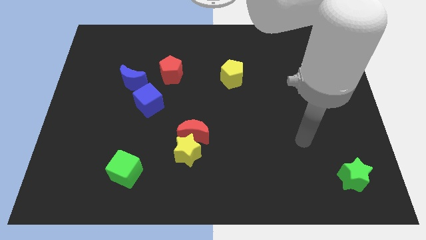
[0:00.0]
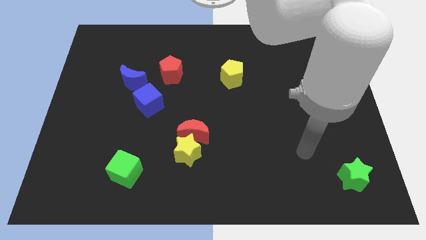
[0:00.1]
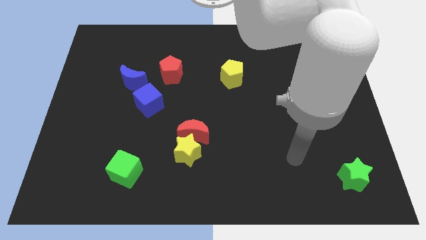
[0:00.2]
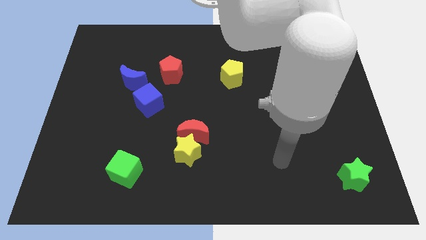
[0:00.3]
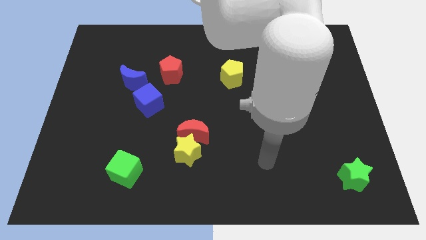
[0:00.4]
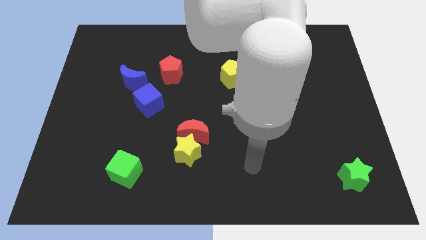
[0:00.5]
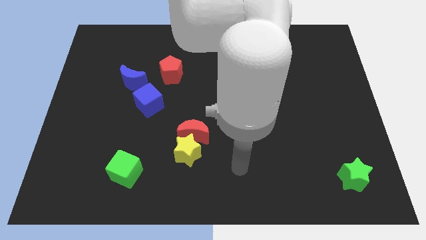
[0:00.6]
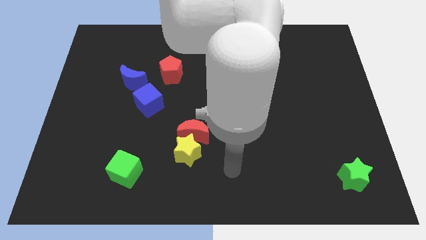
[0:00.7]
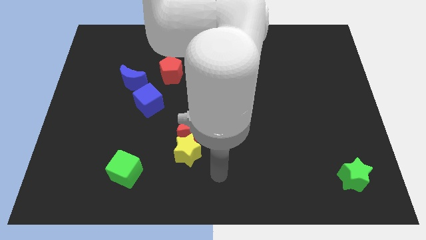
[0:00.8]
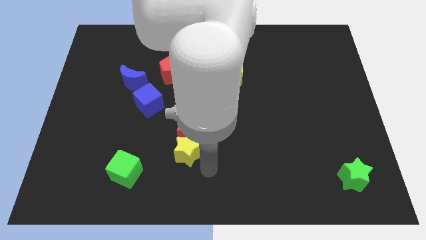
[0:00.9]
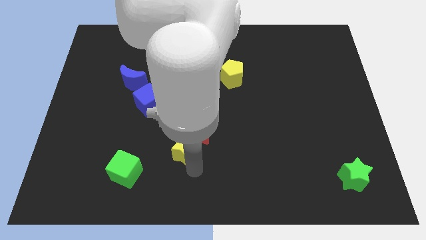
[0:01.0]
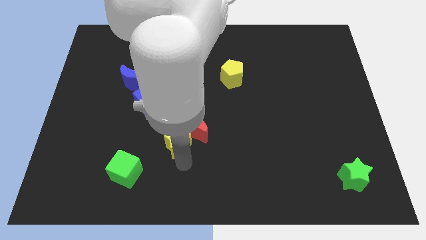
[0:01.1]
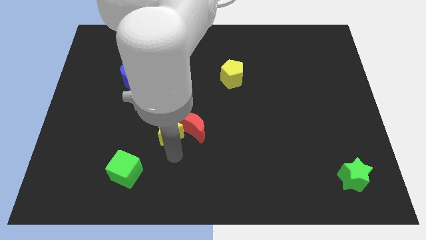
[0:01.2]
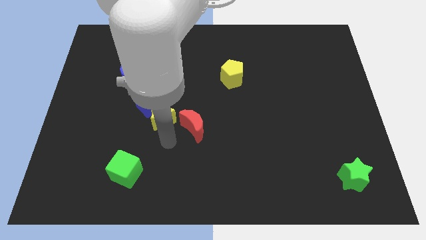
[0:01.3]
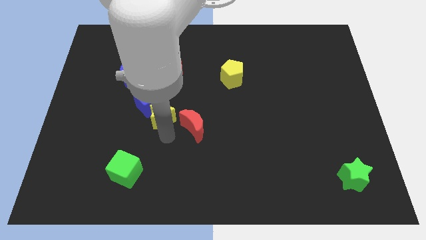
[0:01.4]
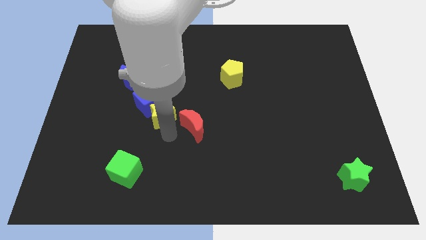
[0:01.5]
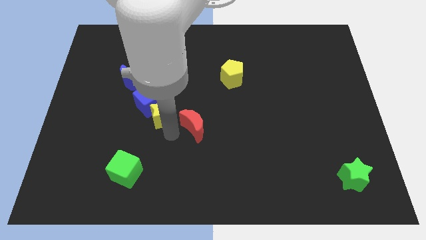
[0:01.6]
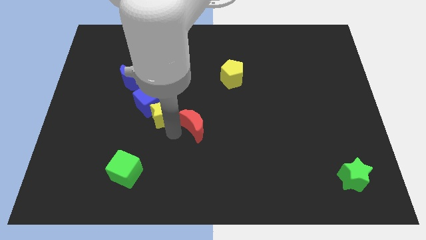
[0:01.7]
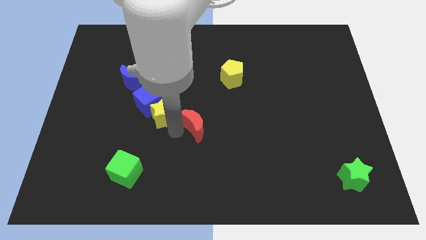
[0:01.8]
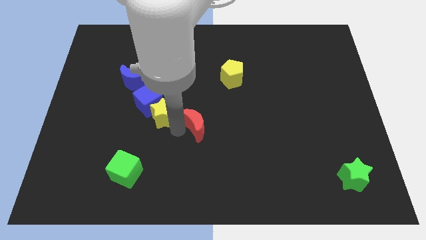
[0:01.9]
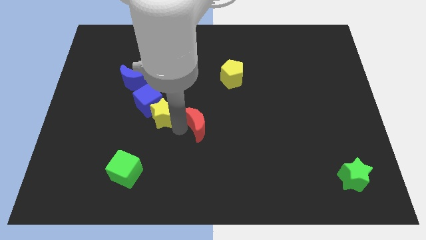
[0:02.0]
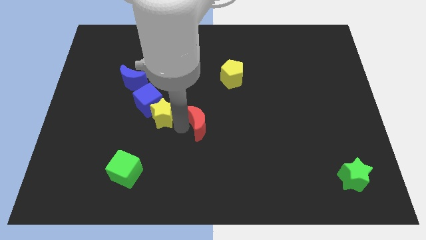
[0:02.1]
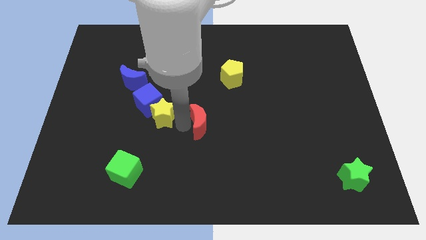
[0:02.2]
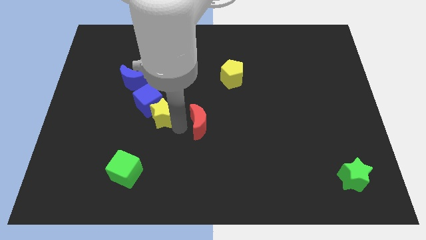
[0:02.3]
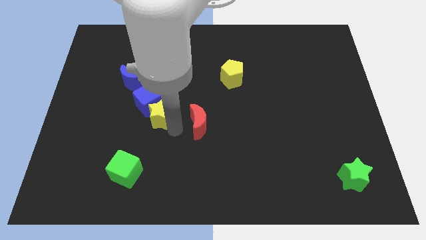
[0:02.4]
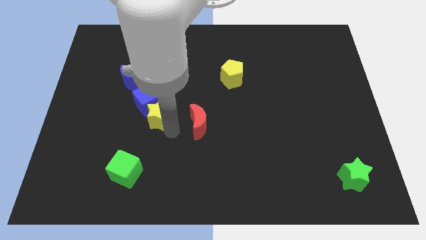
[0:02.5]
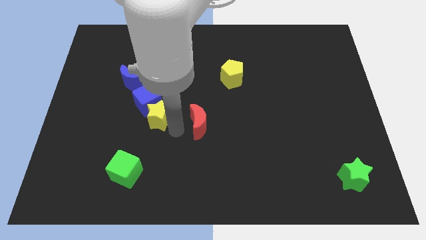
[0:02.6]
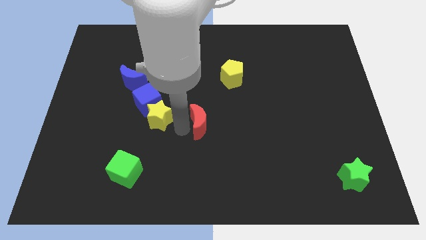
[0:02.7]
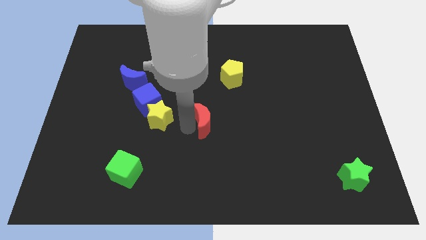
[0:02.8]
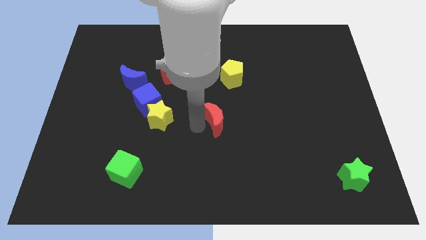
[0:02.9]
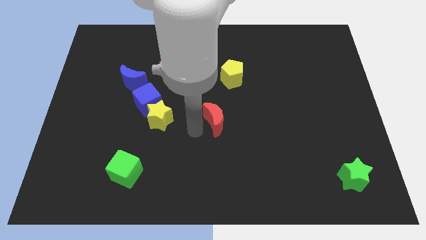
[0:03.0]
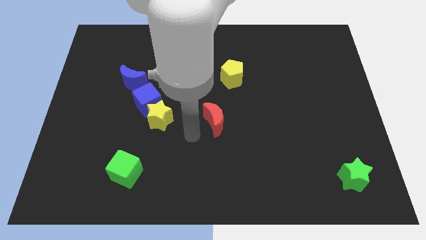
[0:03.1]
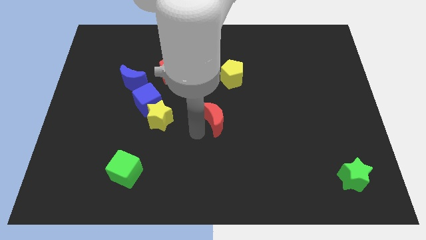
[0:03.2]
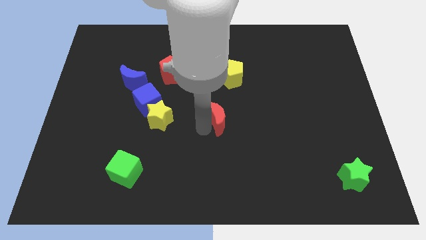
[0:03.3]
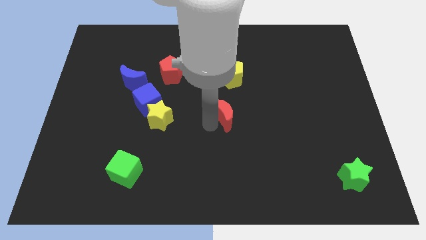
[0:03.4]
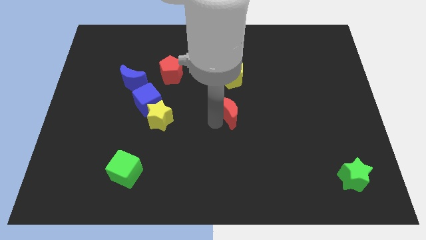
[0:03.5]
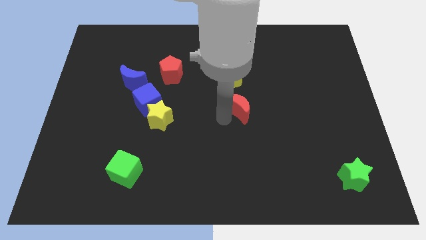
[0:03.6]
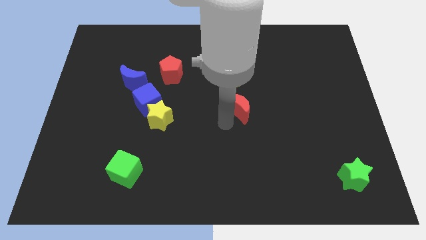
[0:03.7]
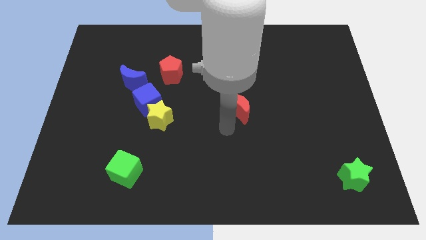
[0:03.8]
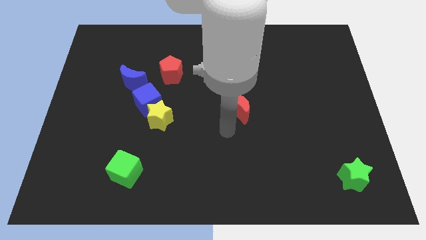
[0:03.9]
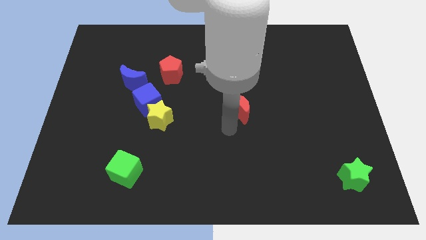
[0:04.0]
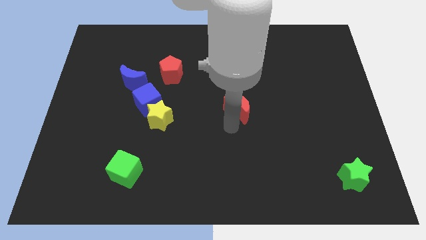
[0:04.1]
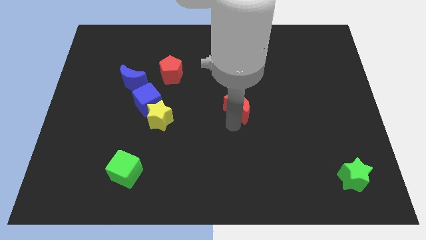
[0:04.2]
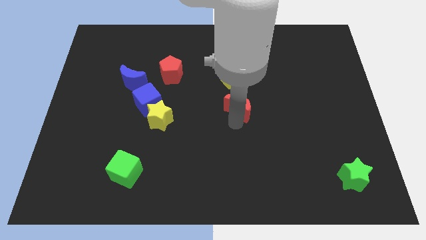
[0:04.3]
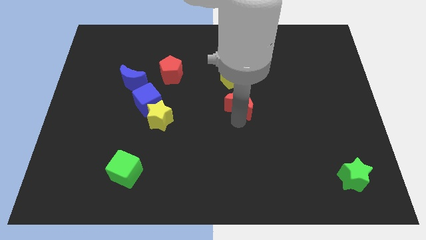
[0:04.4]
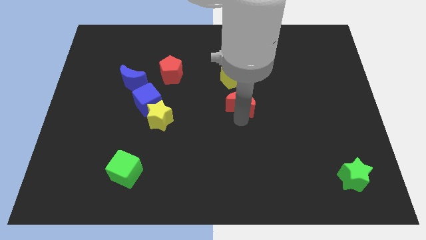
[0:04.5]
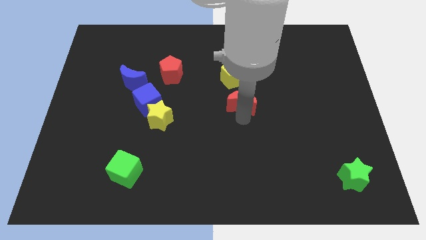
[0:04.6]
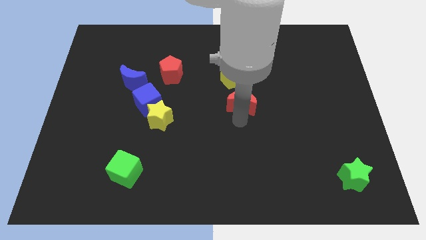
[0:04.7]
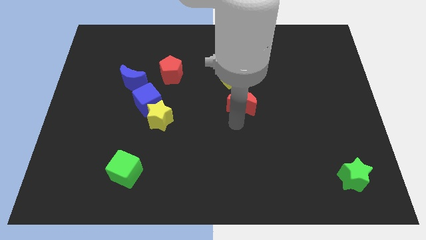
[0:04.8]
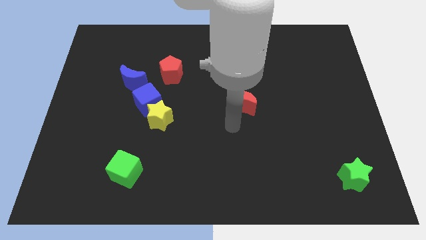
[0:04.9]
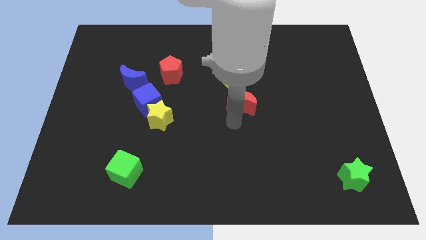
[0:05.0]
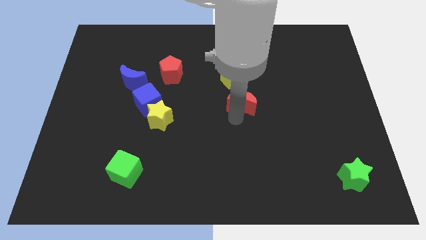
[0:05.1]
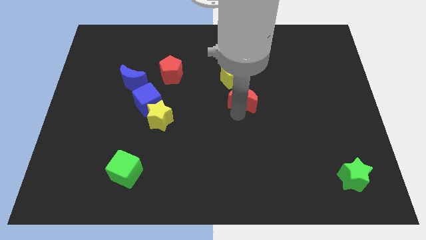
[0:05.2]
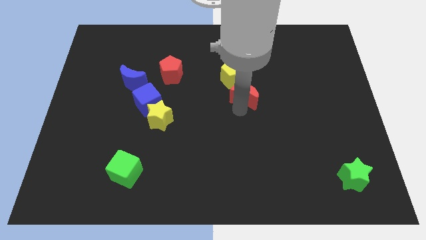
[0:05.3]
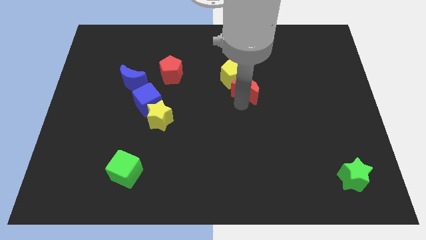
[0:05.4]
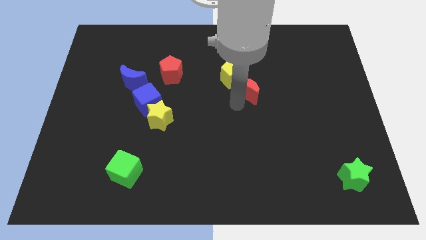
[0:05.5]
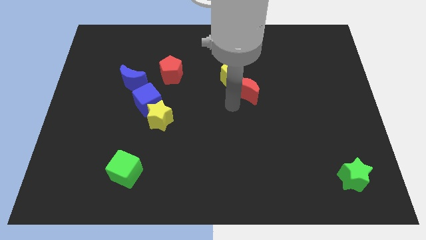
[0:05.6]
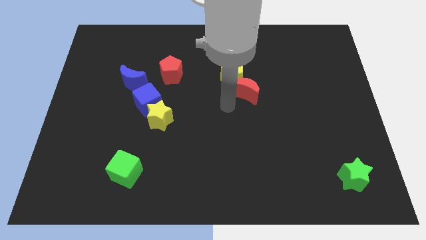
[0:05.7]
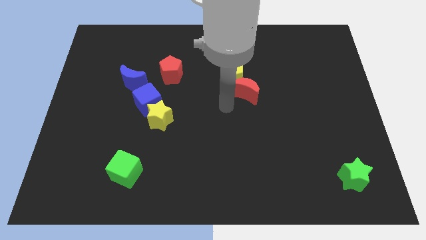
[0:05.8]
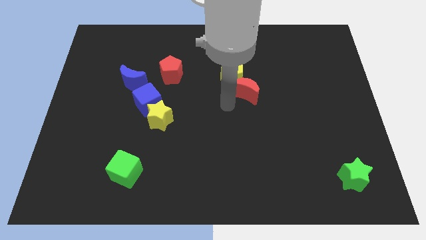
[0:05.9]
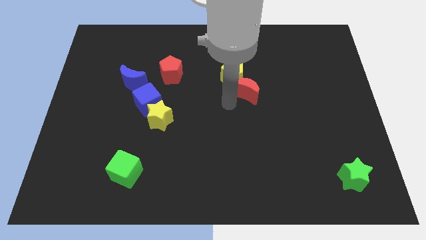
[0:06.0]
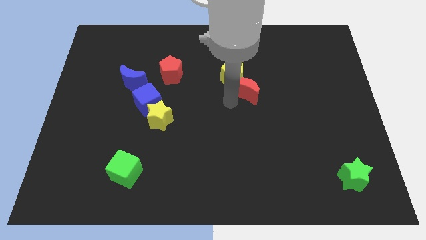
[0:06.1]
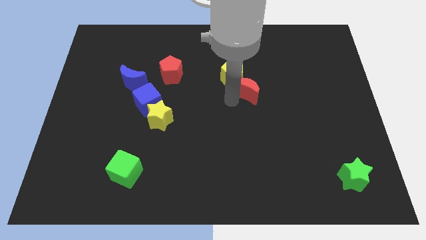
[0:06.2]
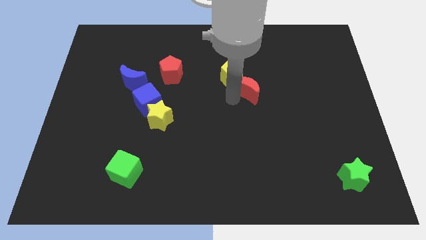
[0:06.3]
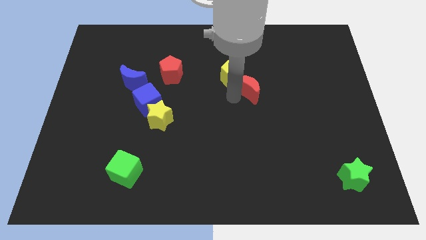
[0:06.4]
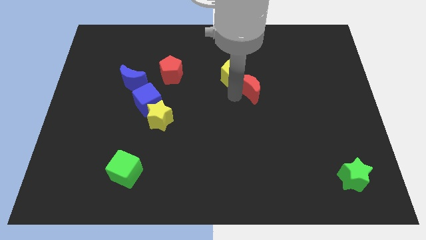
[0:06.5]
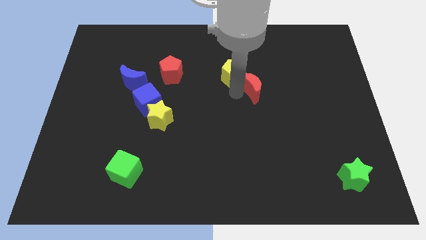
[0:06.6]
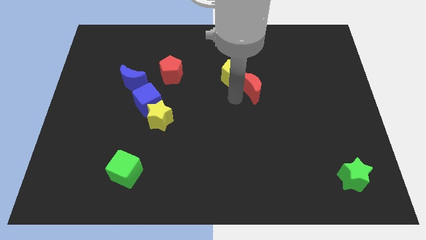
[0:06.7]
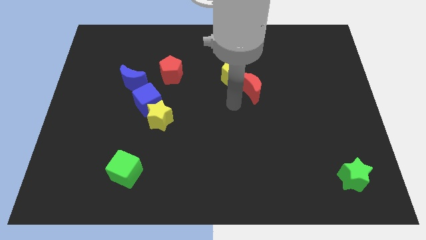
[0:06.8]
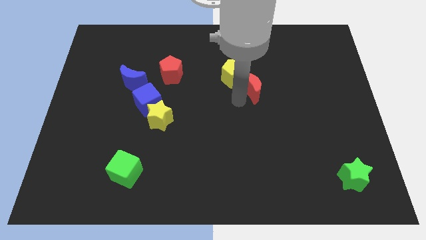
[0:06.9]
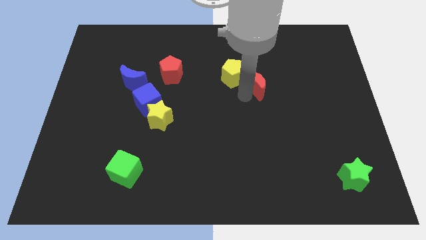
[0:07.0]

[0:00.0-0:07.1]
slide the red moon diagonally up and right

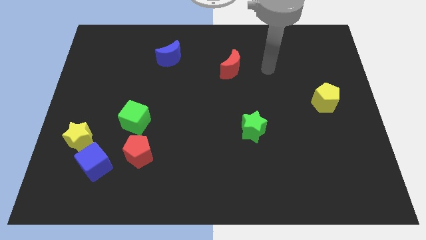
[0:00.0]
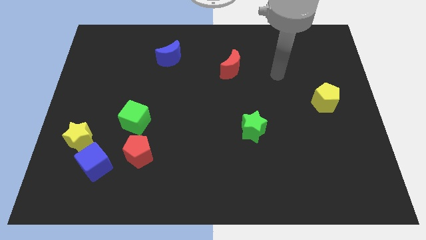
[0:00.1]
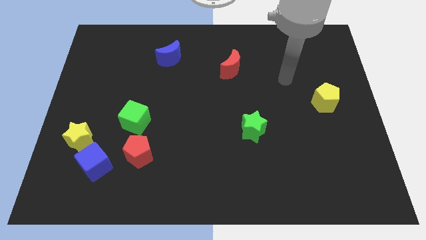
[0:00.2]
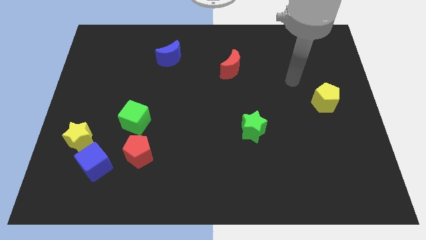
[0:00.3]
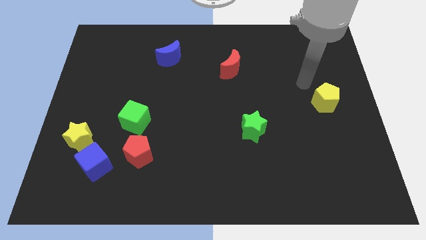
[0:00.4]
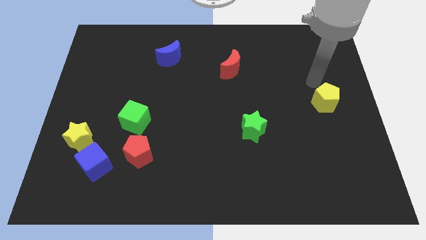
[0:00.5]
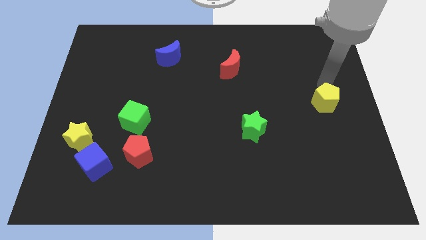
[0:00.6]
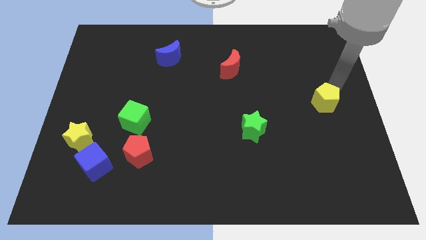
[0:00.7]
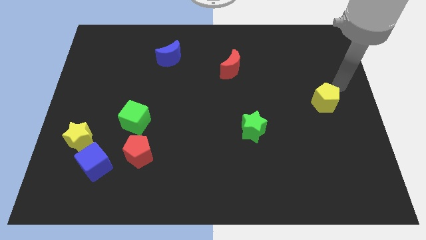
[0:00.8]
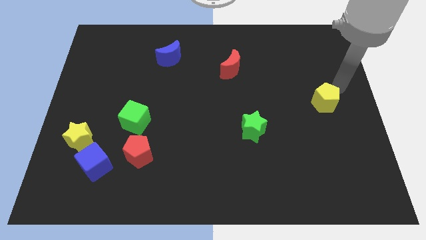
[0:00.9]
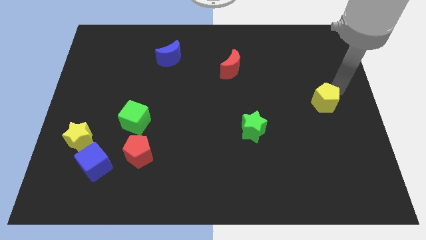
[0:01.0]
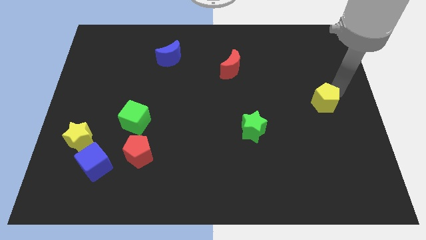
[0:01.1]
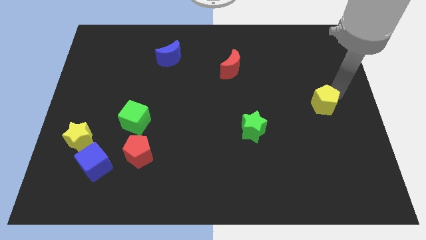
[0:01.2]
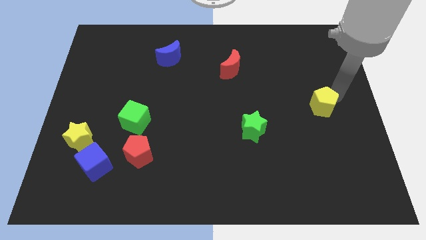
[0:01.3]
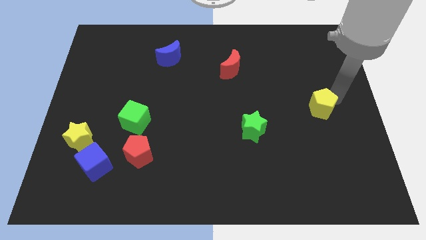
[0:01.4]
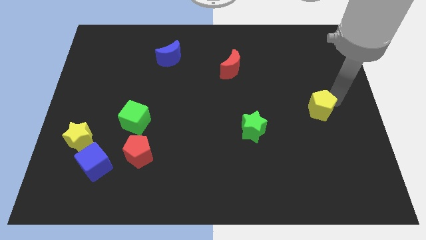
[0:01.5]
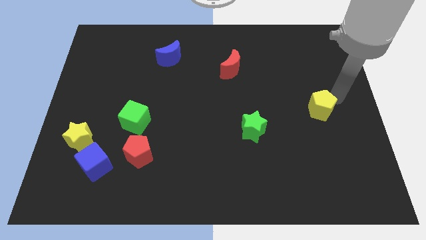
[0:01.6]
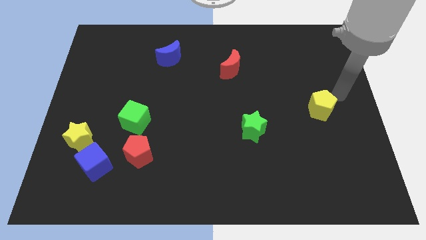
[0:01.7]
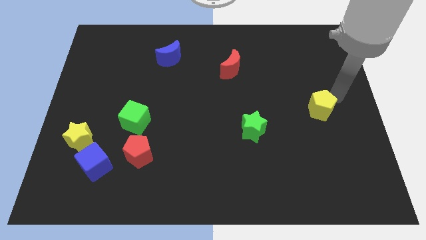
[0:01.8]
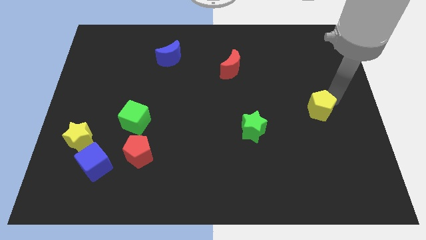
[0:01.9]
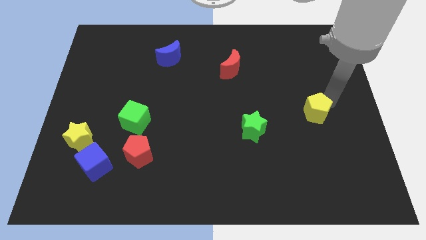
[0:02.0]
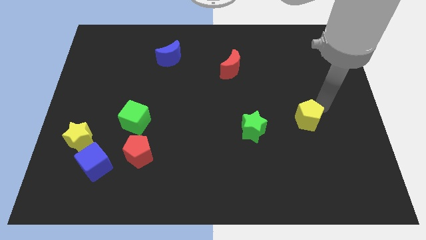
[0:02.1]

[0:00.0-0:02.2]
move the yellow pentagon somewhat down and to the left
